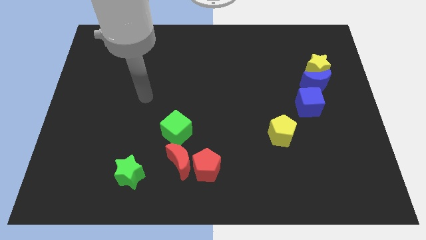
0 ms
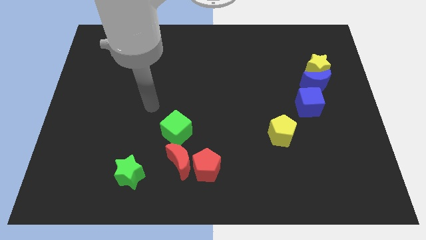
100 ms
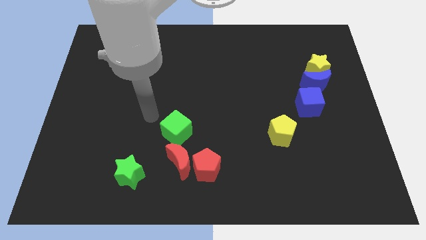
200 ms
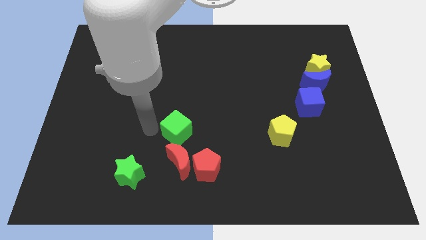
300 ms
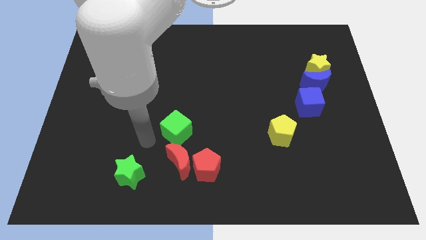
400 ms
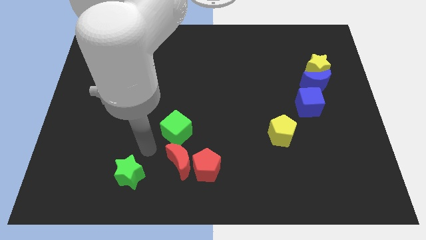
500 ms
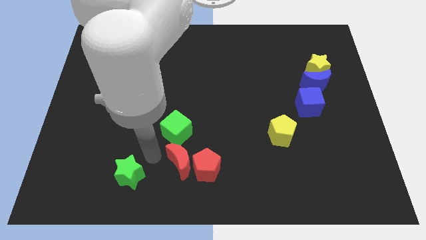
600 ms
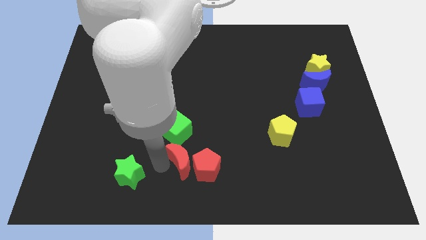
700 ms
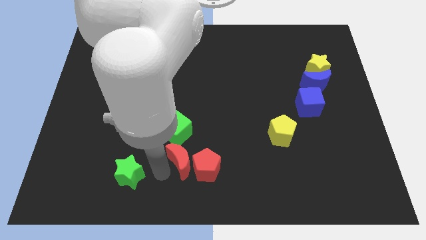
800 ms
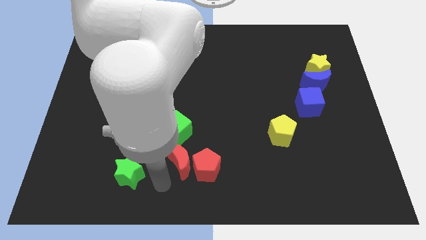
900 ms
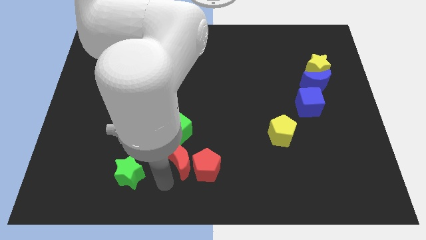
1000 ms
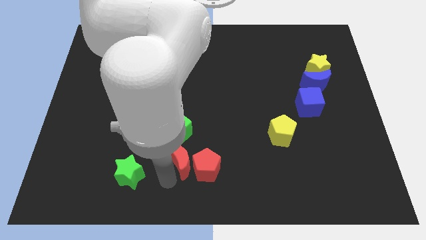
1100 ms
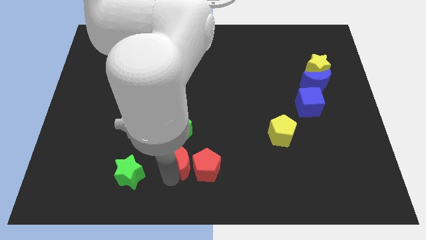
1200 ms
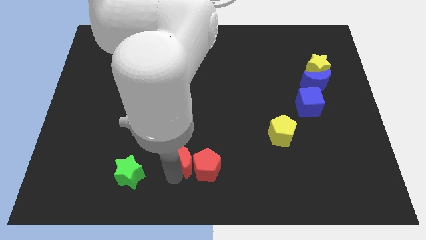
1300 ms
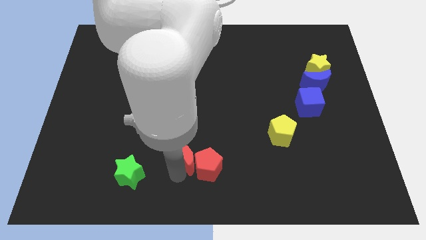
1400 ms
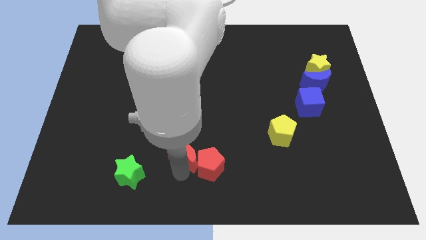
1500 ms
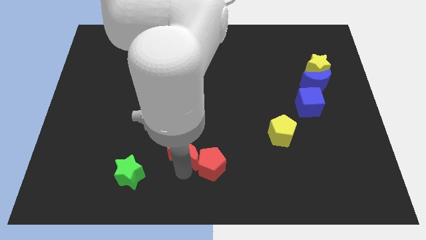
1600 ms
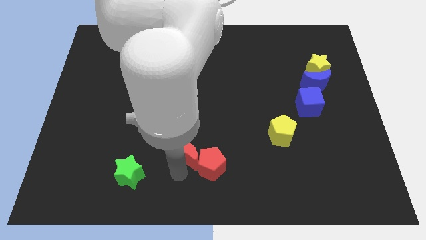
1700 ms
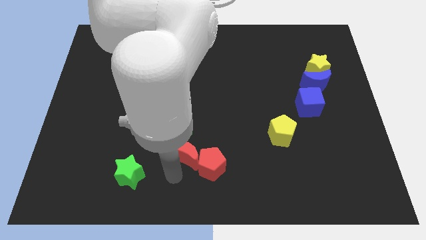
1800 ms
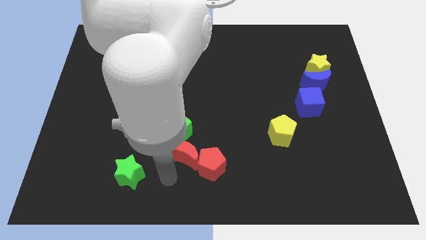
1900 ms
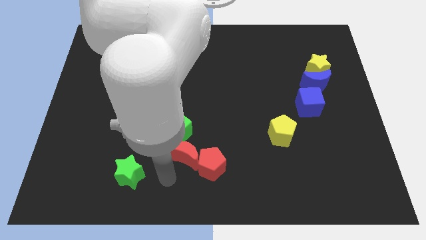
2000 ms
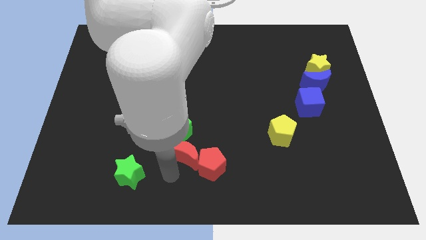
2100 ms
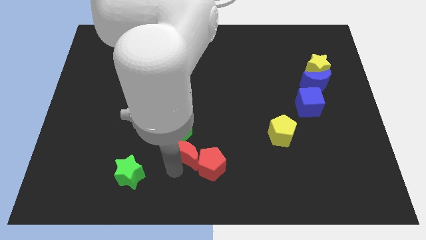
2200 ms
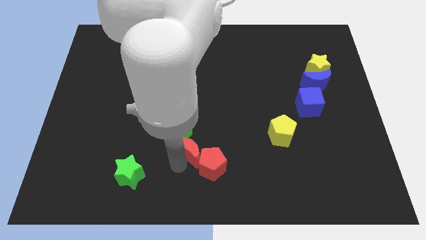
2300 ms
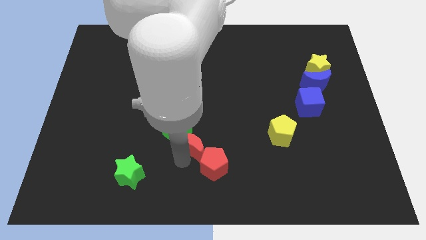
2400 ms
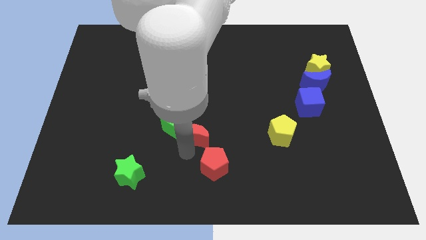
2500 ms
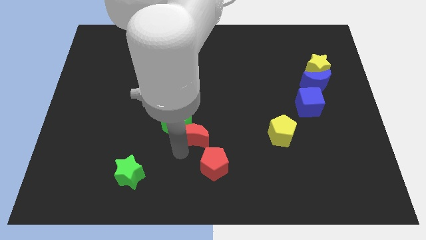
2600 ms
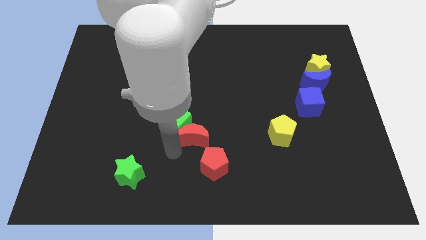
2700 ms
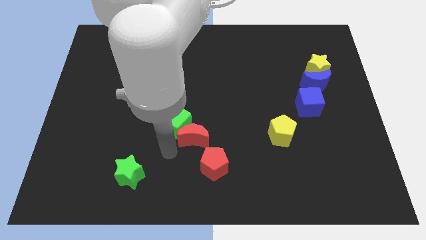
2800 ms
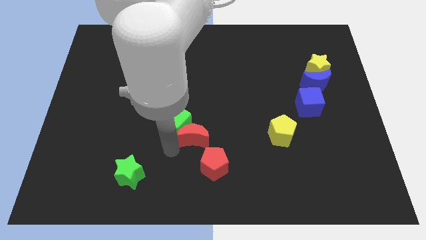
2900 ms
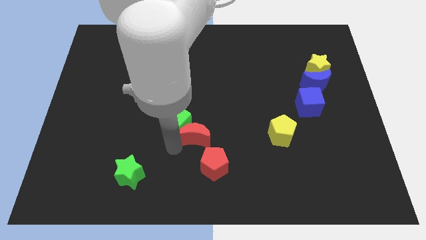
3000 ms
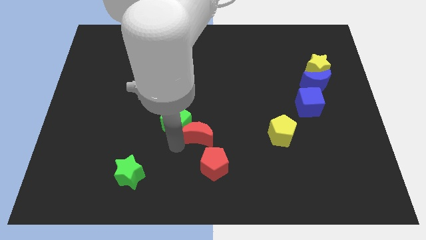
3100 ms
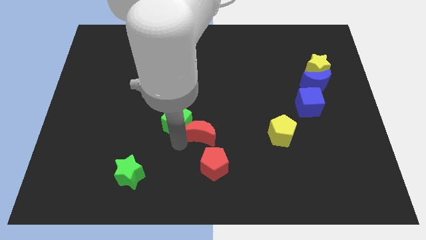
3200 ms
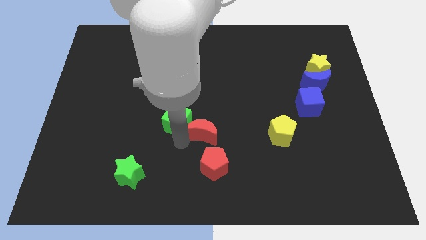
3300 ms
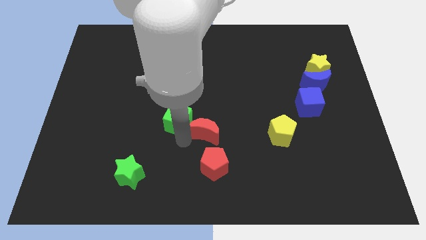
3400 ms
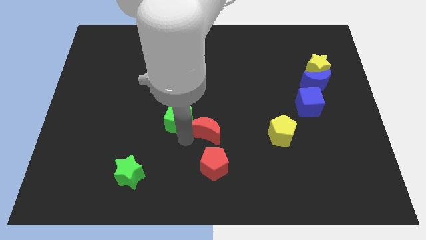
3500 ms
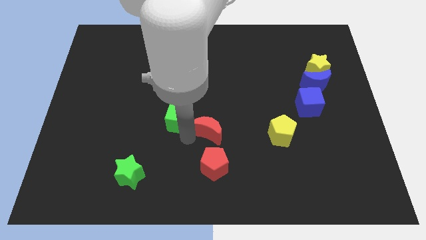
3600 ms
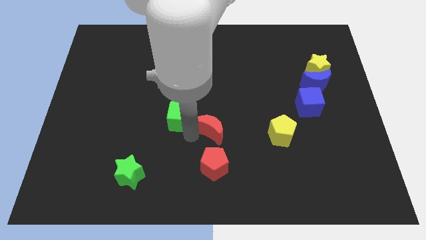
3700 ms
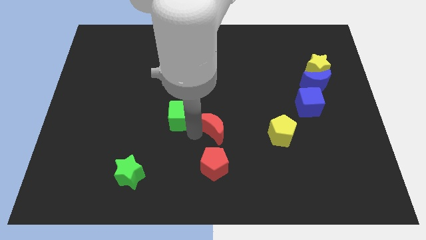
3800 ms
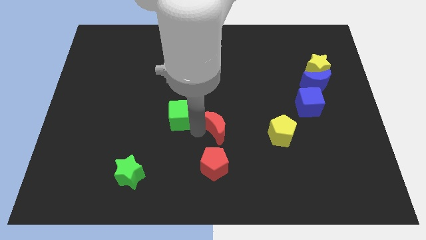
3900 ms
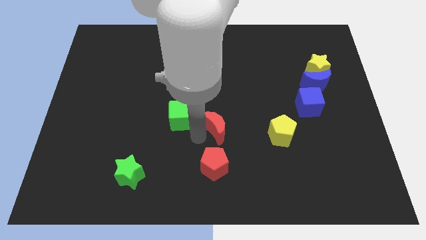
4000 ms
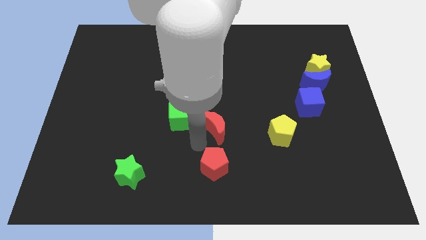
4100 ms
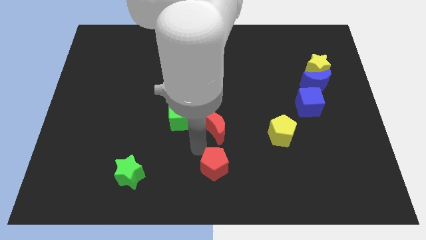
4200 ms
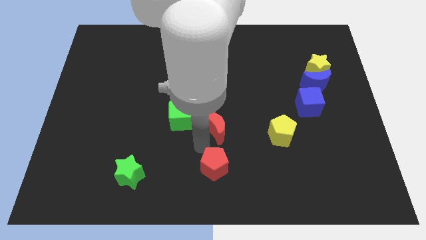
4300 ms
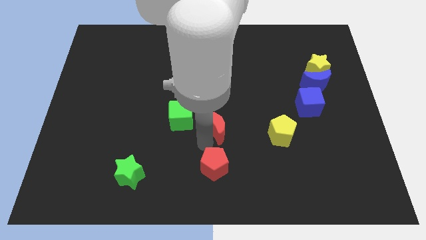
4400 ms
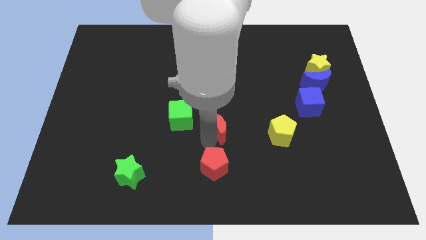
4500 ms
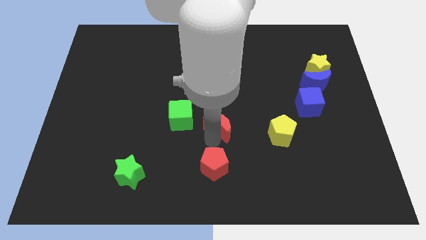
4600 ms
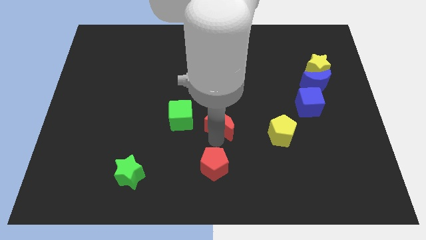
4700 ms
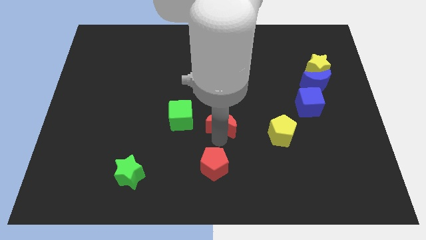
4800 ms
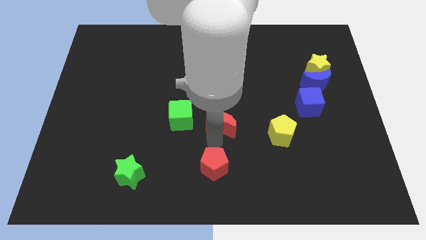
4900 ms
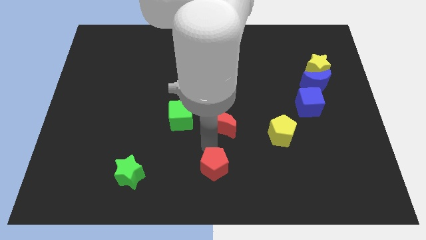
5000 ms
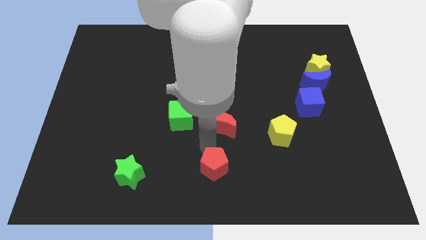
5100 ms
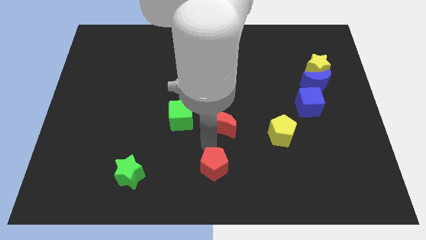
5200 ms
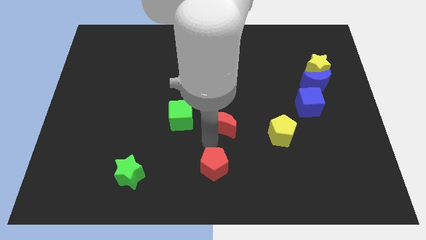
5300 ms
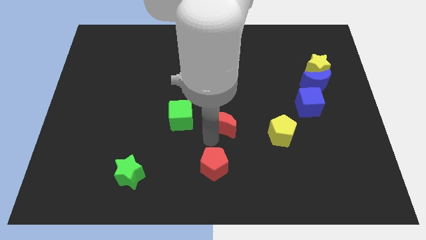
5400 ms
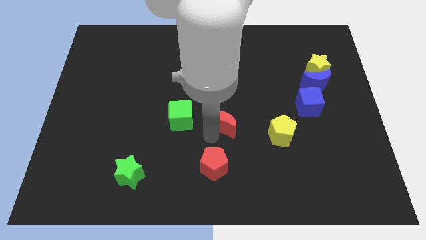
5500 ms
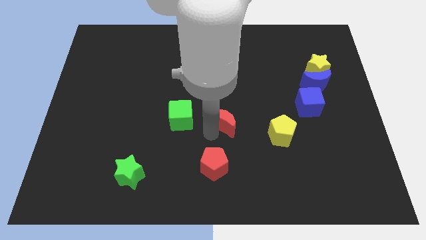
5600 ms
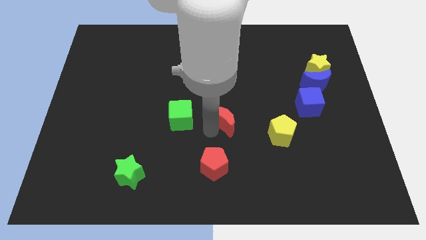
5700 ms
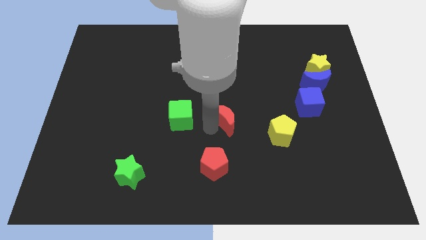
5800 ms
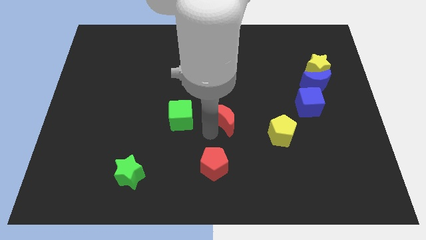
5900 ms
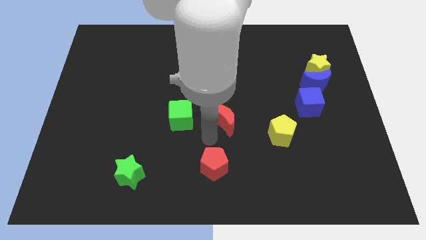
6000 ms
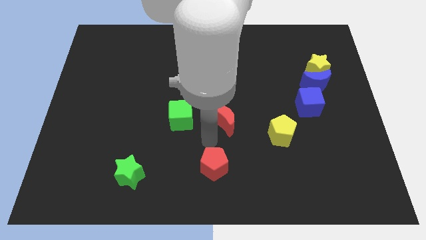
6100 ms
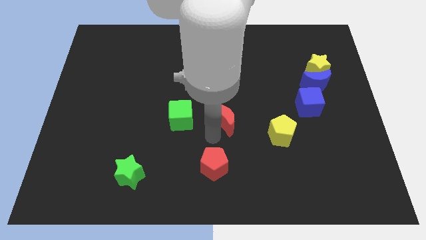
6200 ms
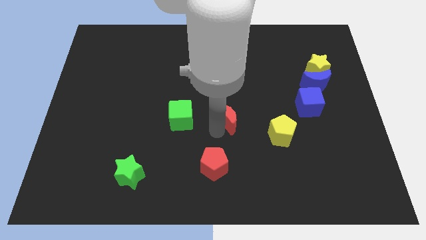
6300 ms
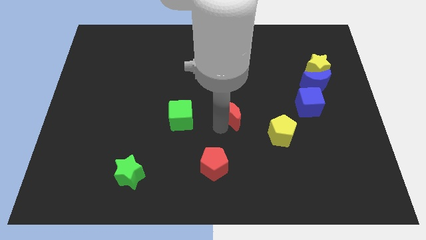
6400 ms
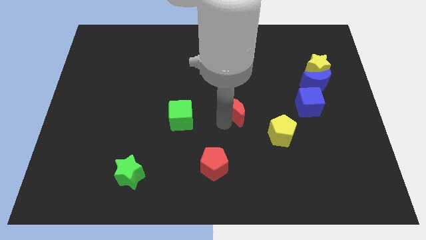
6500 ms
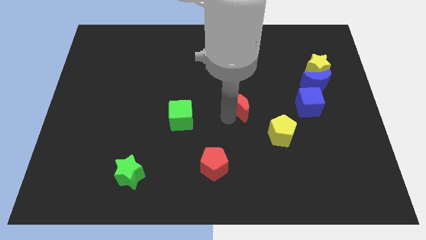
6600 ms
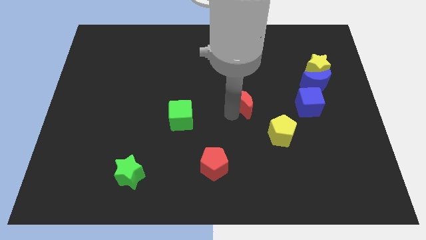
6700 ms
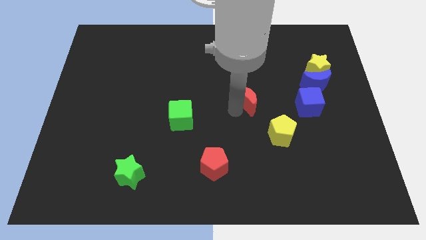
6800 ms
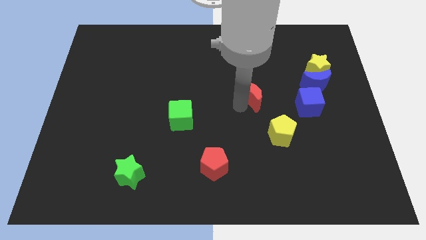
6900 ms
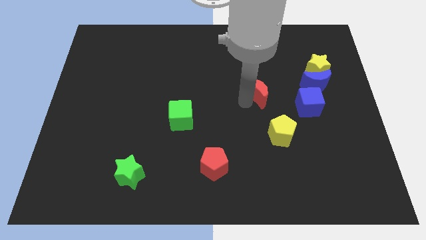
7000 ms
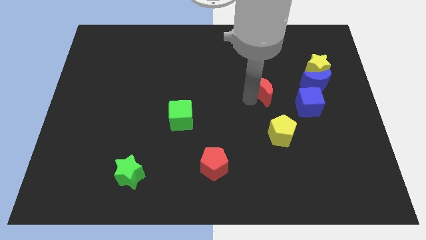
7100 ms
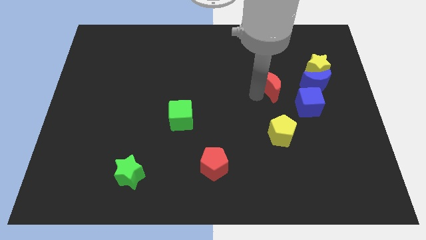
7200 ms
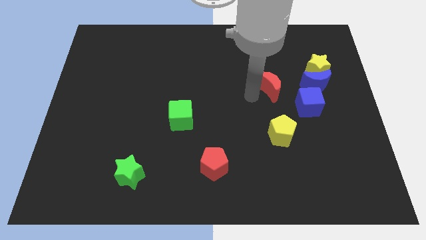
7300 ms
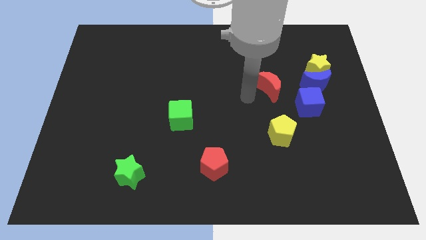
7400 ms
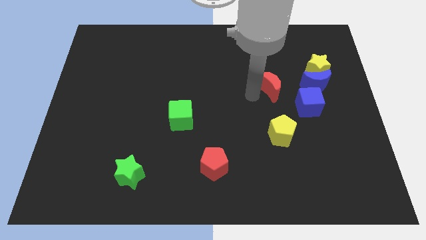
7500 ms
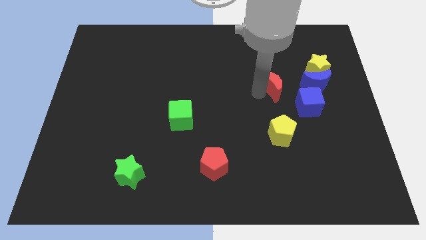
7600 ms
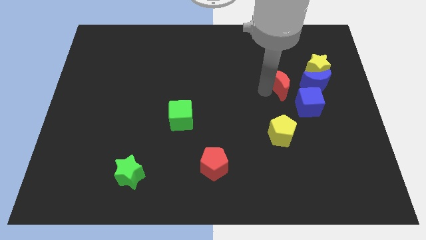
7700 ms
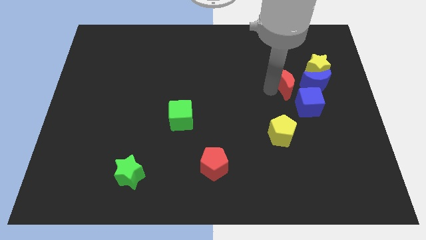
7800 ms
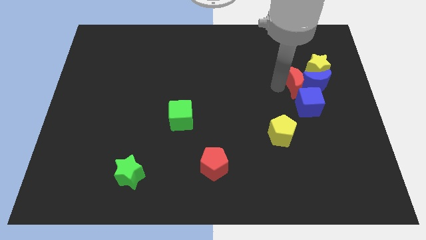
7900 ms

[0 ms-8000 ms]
slide the red moon next to the blue moon
